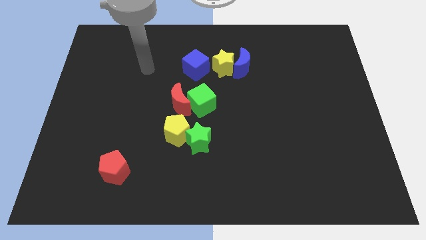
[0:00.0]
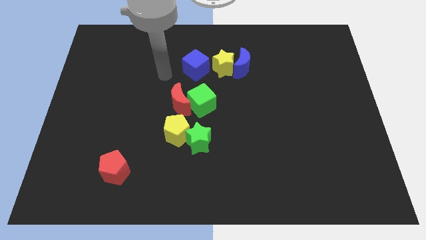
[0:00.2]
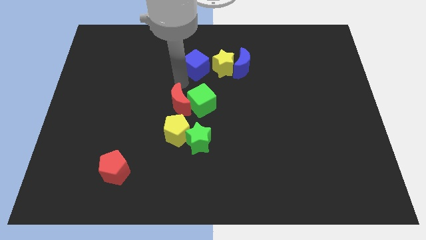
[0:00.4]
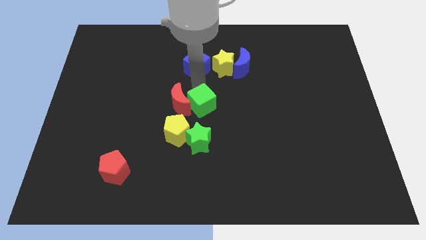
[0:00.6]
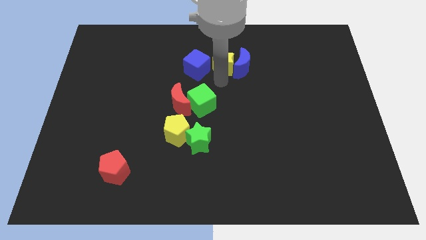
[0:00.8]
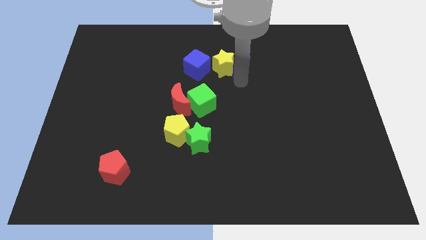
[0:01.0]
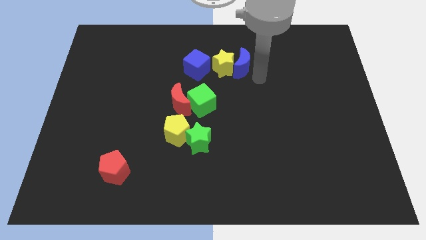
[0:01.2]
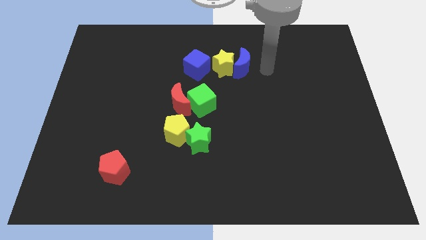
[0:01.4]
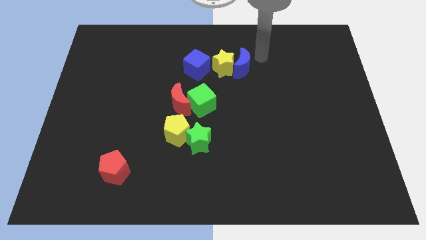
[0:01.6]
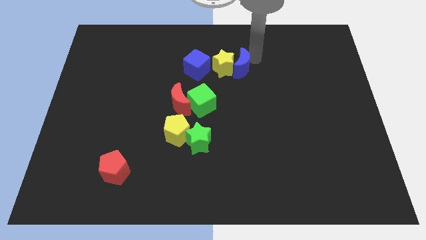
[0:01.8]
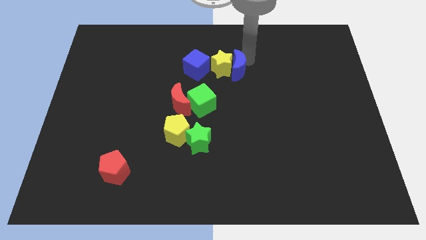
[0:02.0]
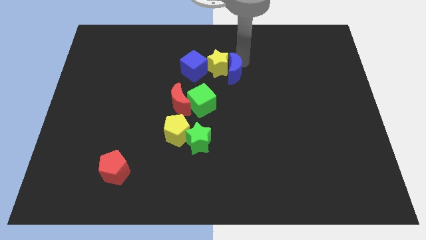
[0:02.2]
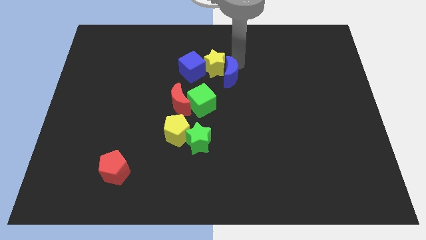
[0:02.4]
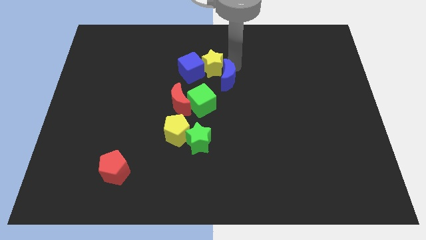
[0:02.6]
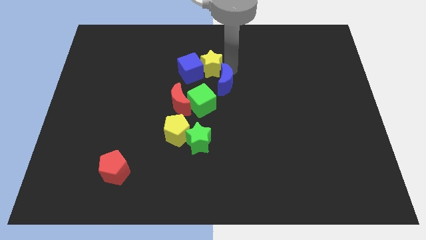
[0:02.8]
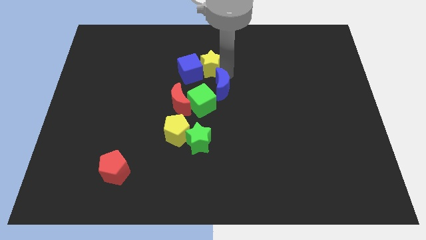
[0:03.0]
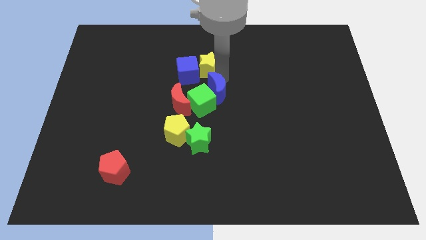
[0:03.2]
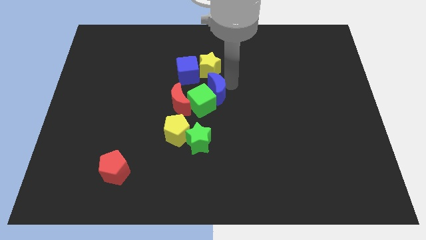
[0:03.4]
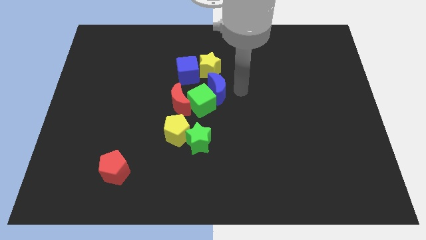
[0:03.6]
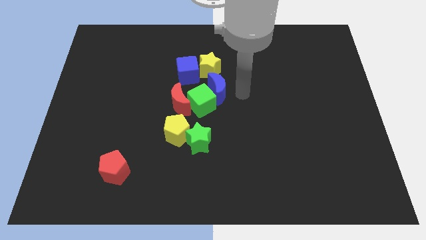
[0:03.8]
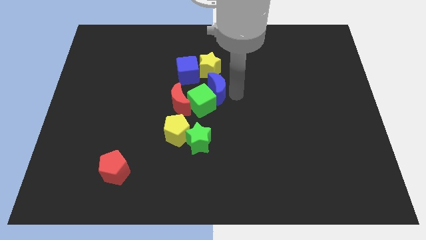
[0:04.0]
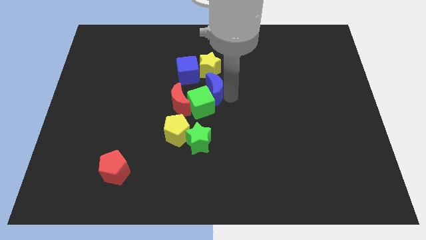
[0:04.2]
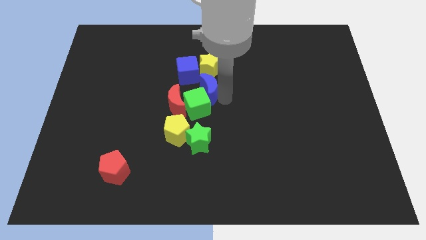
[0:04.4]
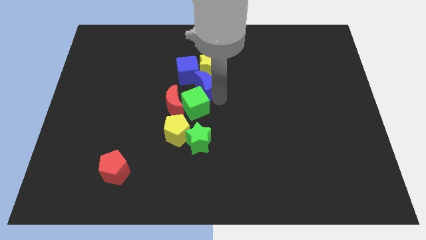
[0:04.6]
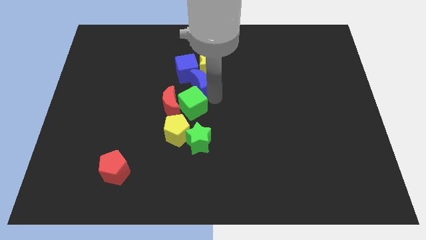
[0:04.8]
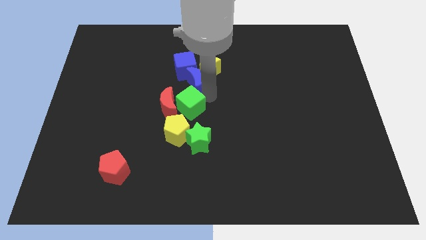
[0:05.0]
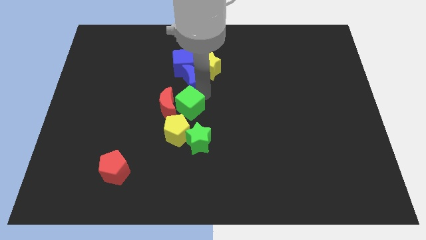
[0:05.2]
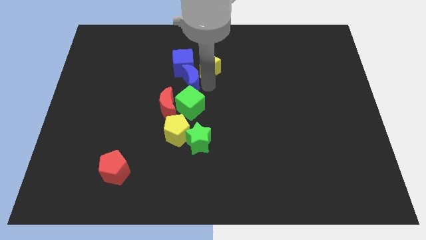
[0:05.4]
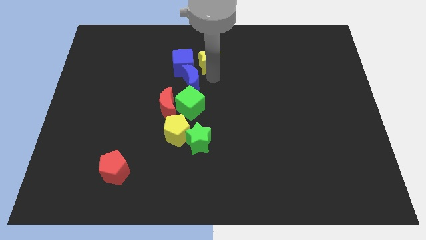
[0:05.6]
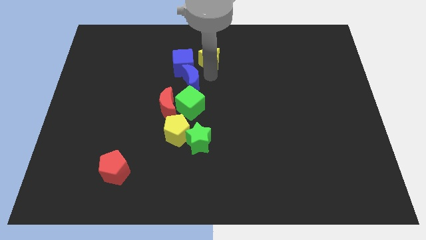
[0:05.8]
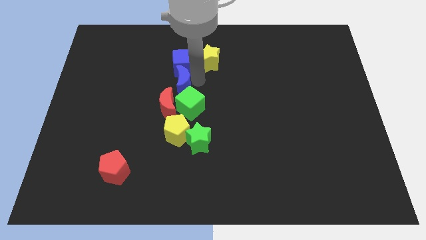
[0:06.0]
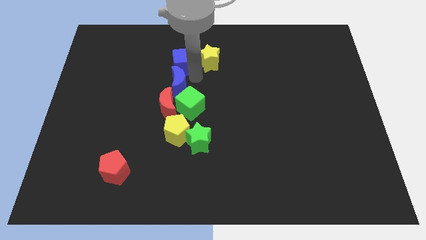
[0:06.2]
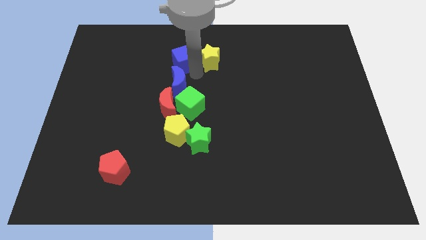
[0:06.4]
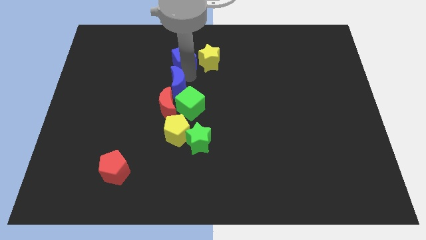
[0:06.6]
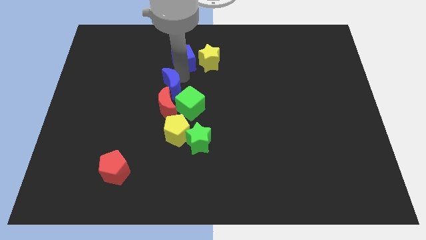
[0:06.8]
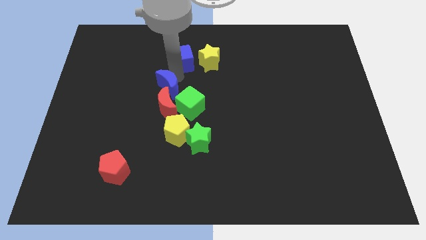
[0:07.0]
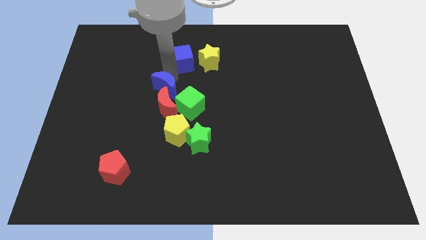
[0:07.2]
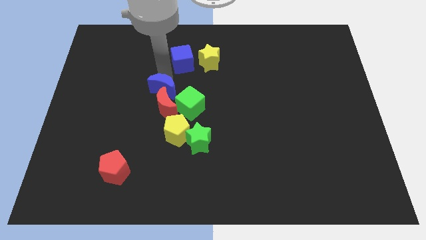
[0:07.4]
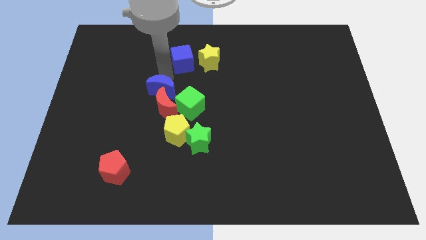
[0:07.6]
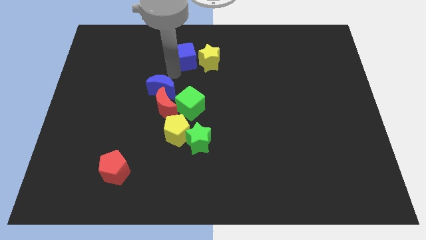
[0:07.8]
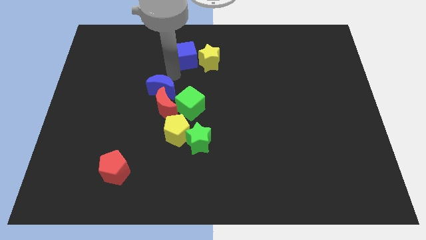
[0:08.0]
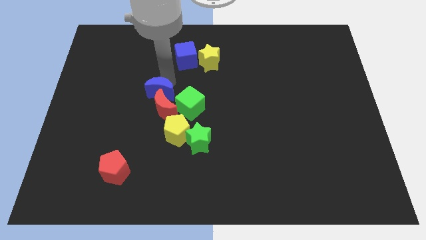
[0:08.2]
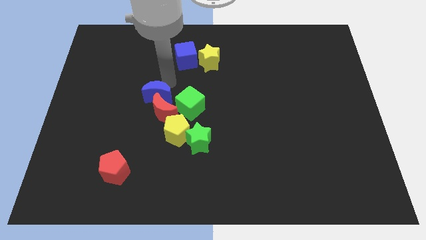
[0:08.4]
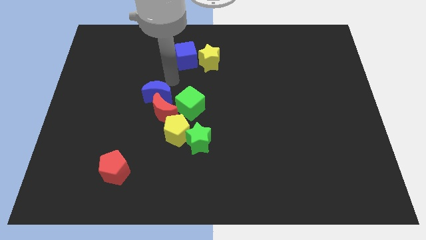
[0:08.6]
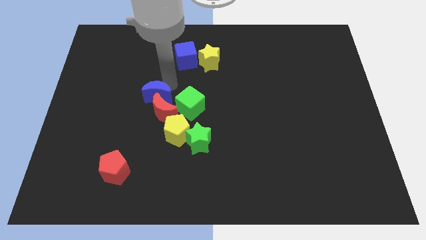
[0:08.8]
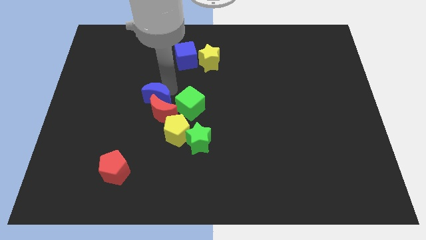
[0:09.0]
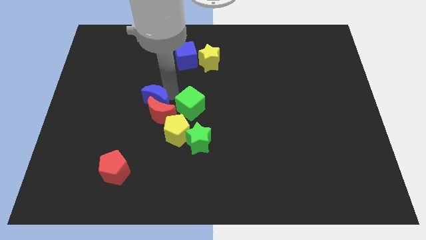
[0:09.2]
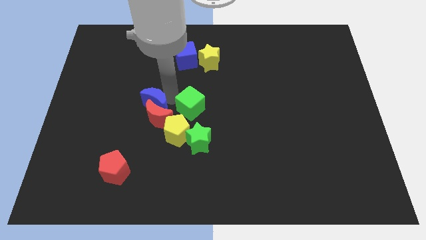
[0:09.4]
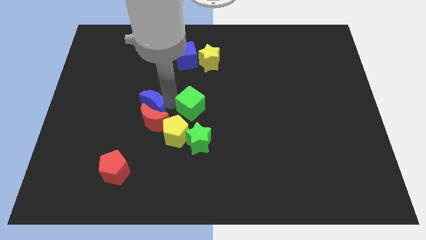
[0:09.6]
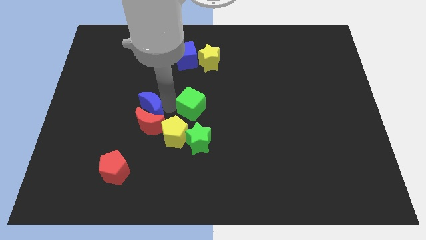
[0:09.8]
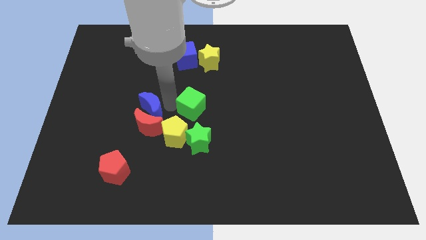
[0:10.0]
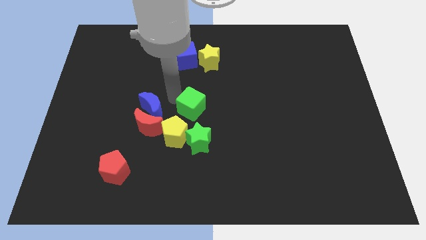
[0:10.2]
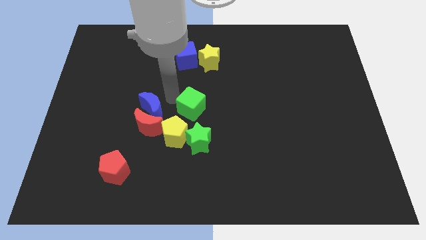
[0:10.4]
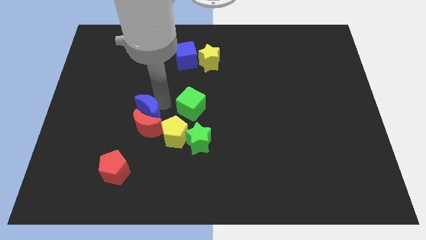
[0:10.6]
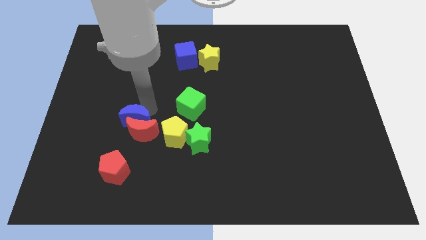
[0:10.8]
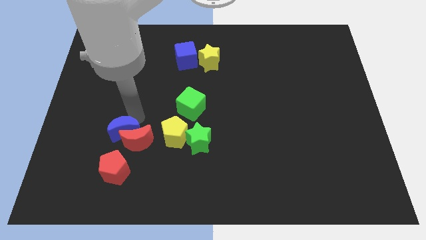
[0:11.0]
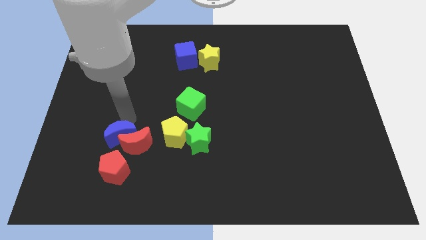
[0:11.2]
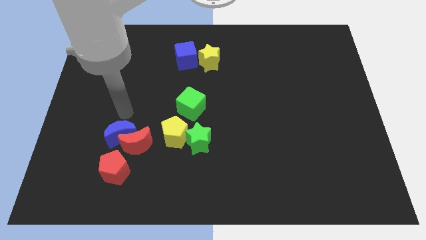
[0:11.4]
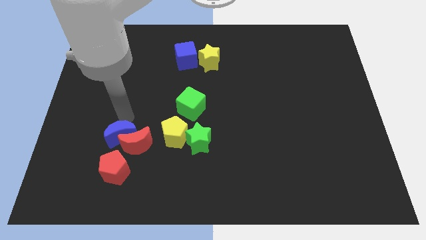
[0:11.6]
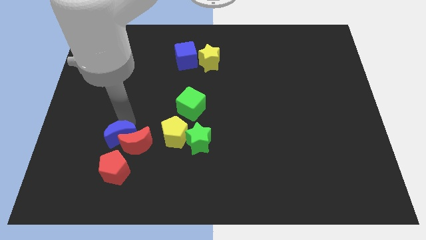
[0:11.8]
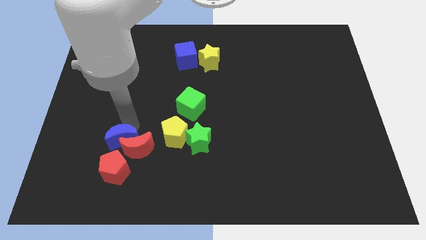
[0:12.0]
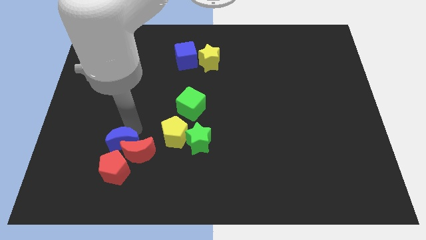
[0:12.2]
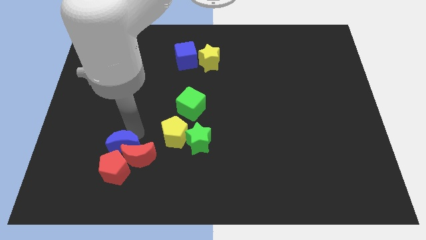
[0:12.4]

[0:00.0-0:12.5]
push the blue moon to the red pentagon

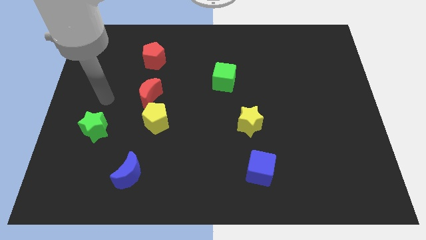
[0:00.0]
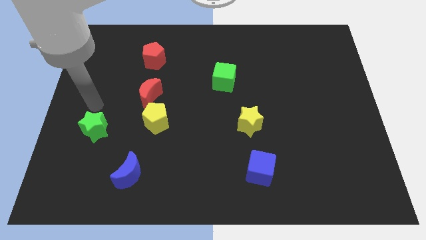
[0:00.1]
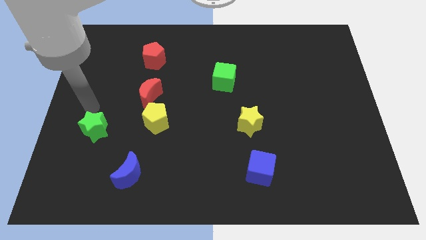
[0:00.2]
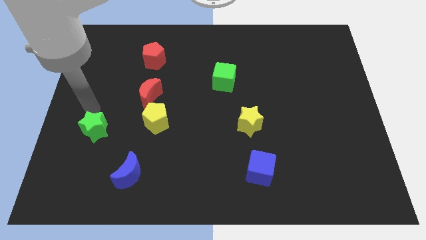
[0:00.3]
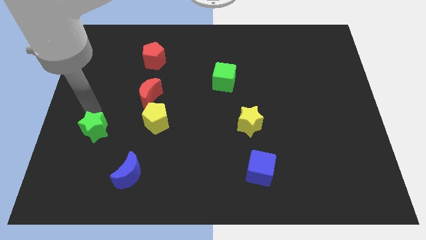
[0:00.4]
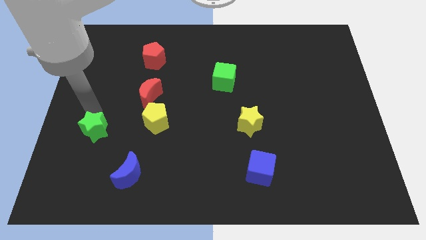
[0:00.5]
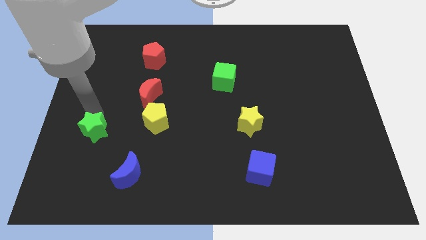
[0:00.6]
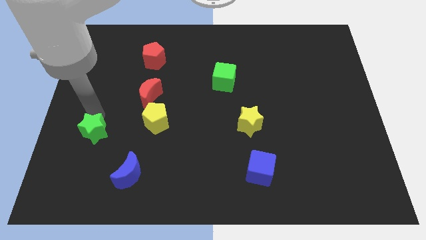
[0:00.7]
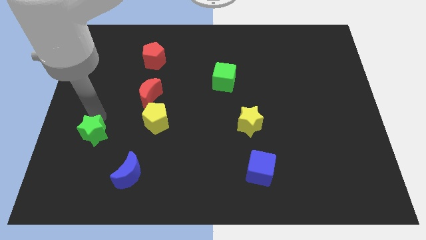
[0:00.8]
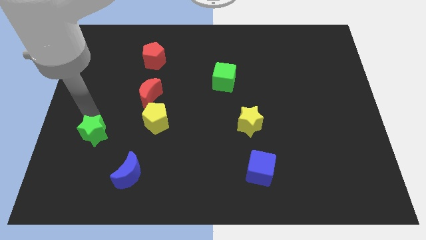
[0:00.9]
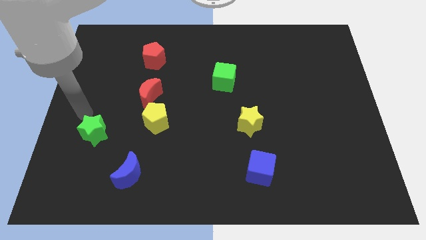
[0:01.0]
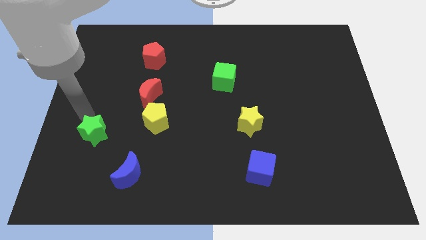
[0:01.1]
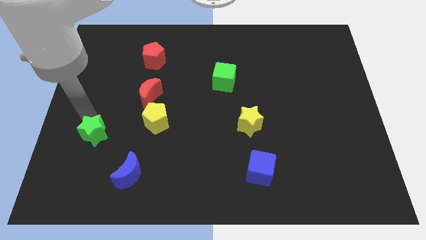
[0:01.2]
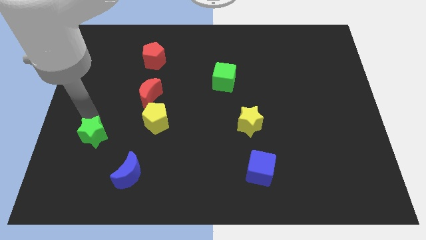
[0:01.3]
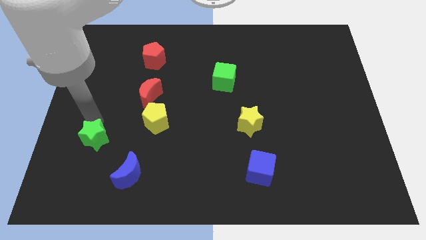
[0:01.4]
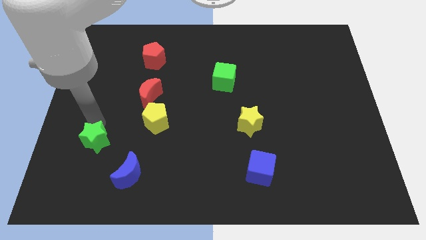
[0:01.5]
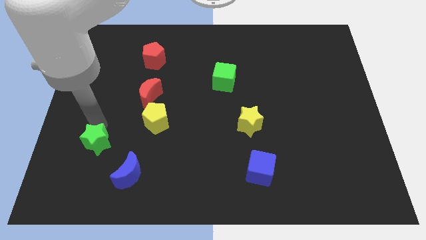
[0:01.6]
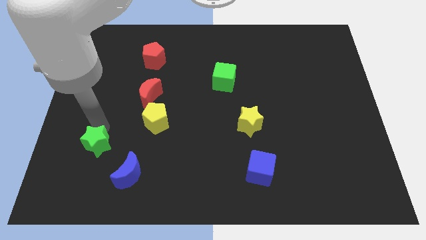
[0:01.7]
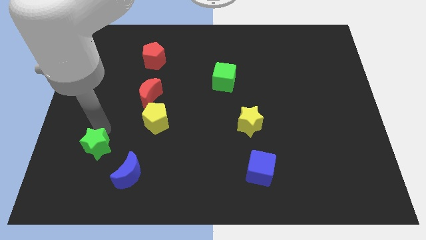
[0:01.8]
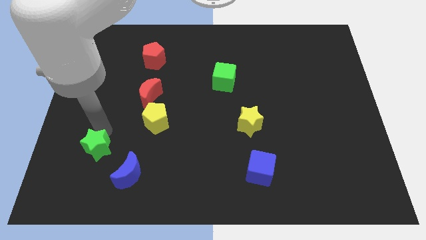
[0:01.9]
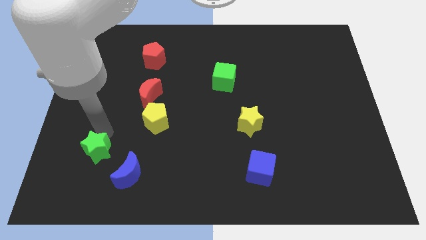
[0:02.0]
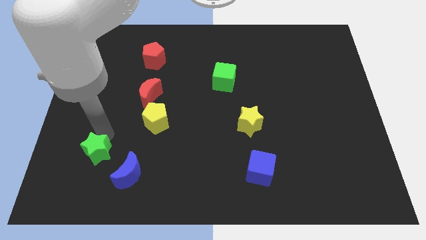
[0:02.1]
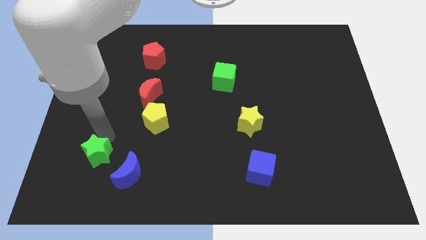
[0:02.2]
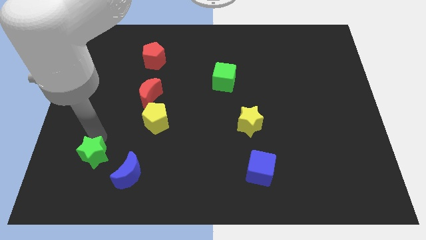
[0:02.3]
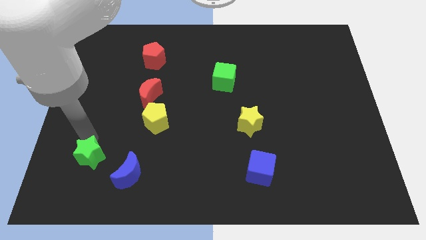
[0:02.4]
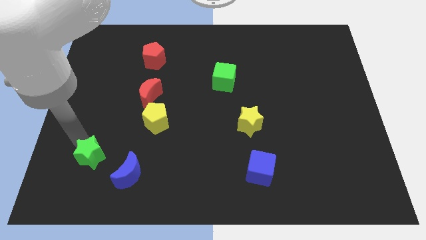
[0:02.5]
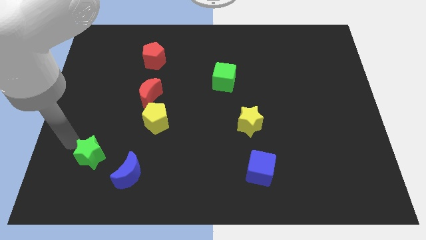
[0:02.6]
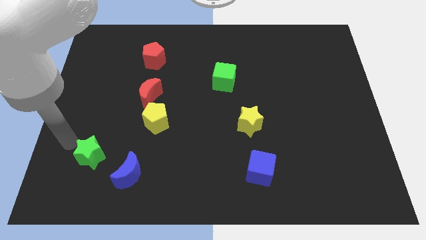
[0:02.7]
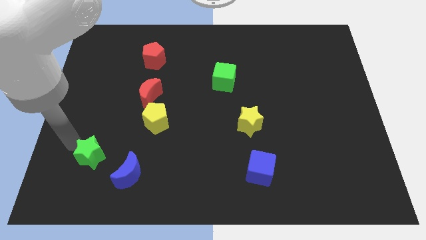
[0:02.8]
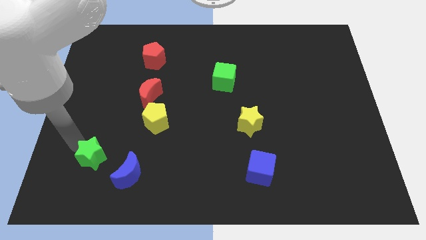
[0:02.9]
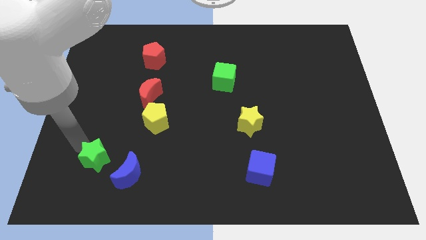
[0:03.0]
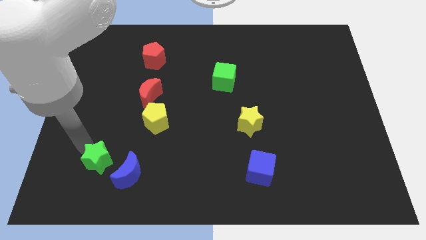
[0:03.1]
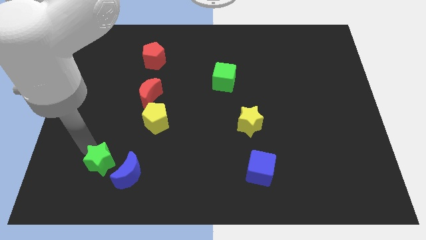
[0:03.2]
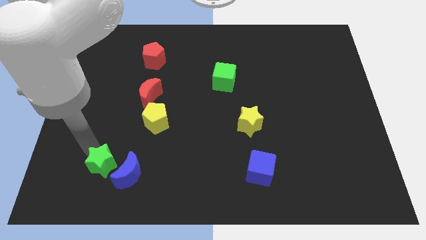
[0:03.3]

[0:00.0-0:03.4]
slide the green star to the blue moon
